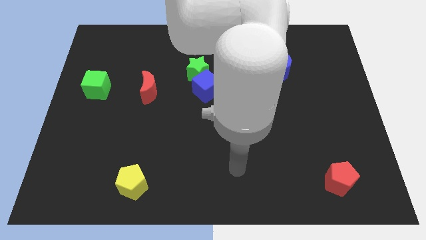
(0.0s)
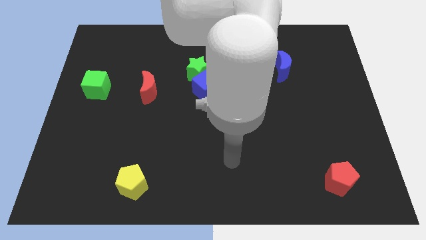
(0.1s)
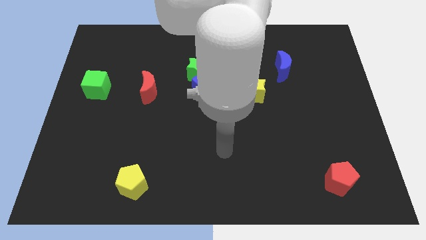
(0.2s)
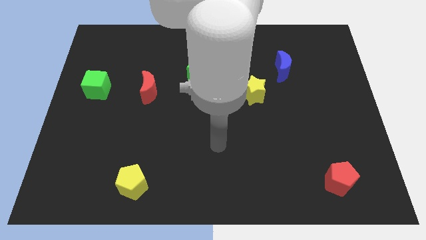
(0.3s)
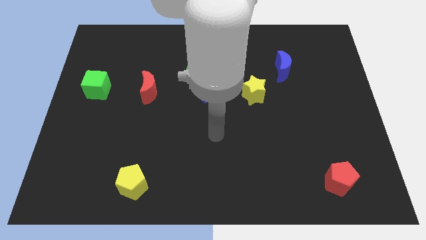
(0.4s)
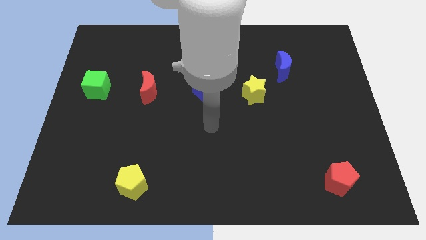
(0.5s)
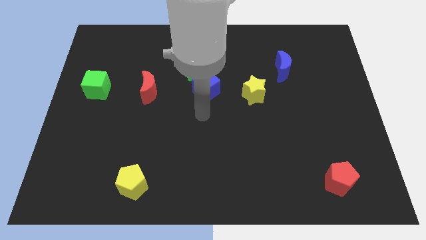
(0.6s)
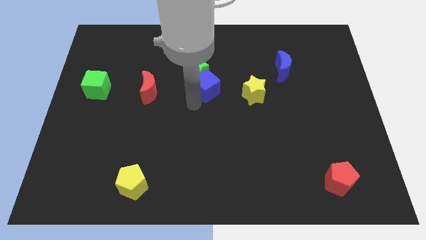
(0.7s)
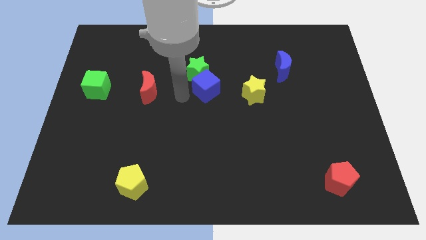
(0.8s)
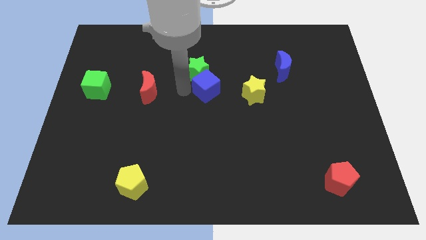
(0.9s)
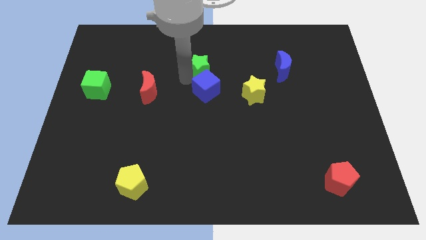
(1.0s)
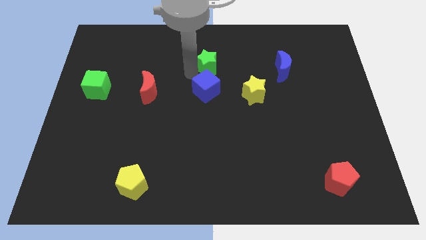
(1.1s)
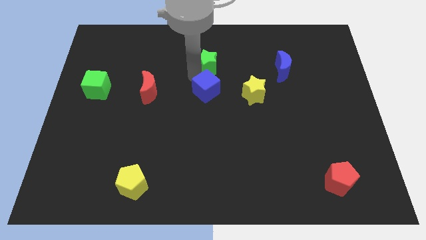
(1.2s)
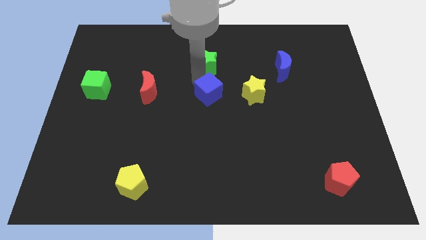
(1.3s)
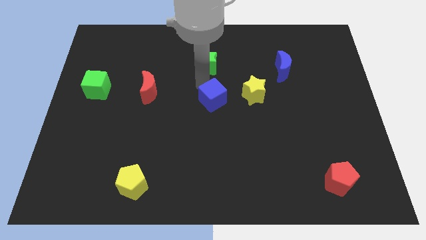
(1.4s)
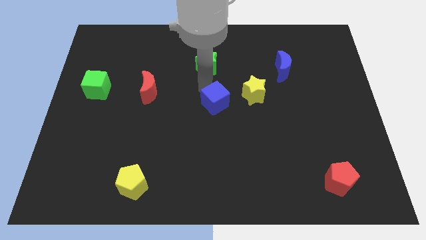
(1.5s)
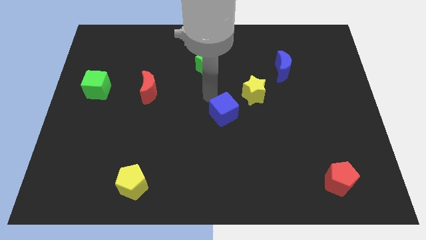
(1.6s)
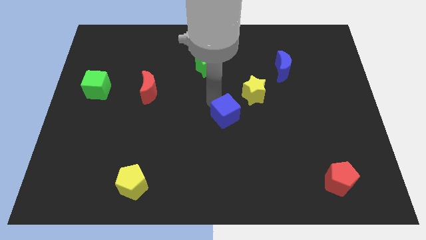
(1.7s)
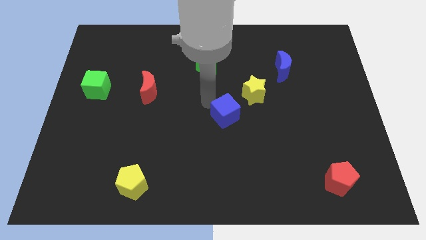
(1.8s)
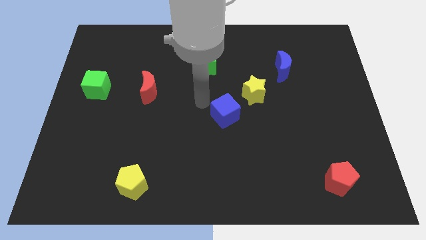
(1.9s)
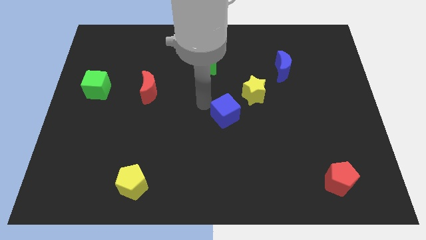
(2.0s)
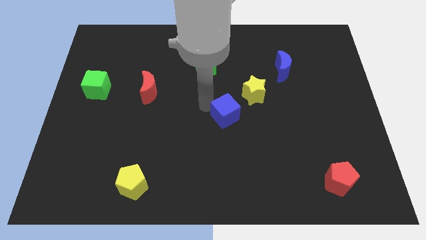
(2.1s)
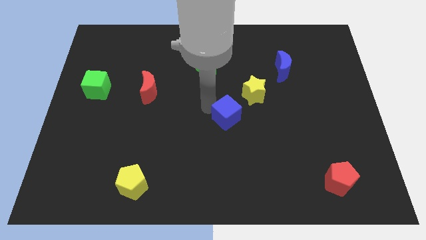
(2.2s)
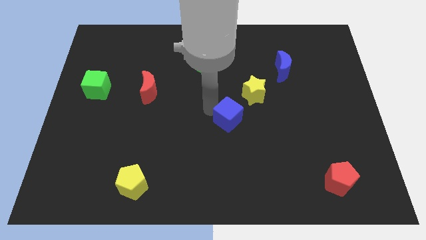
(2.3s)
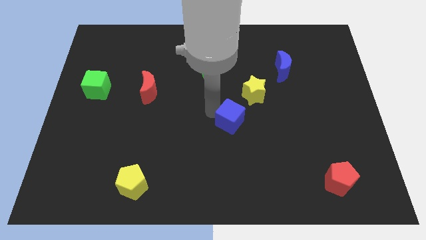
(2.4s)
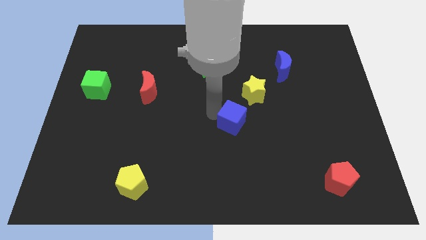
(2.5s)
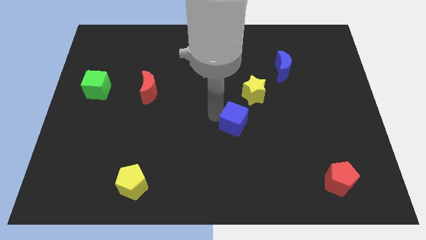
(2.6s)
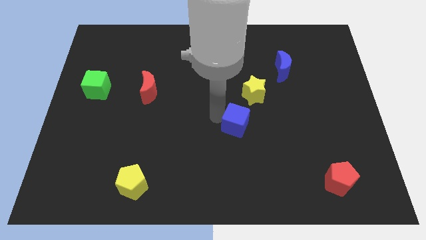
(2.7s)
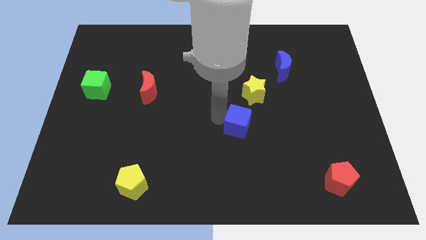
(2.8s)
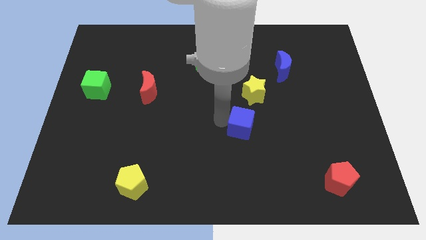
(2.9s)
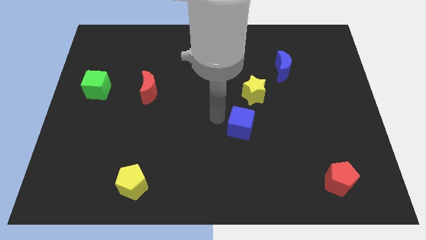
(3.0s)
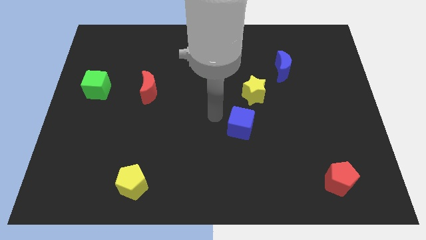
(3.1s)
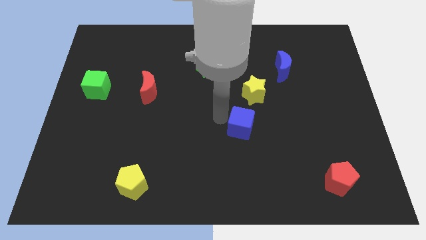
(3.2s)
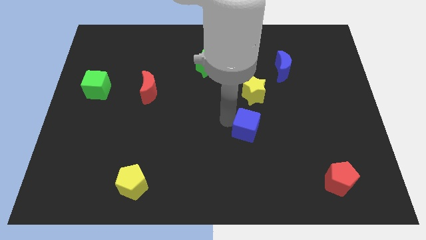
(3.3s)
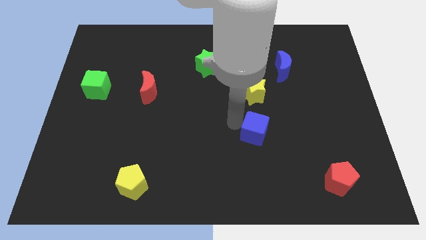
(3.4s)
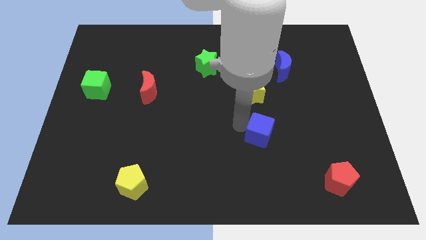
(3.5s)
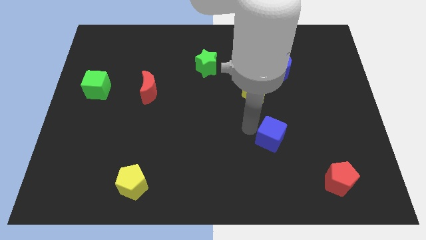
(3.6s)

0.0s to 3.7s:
slide the blue cube down and to the right diagonally

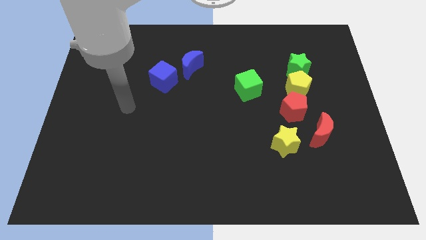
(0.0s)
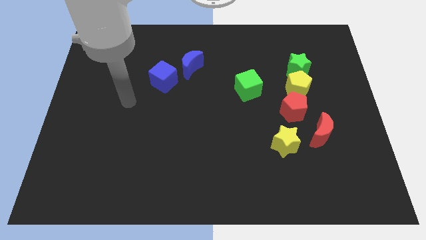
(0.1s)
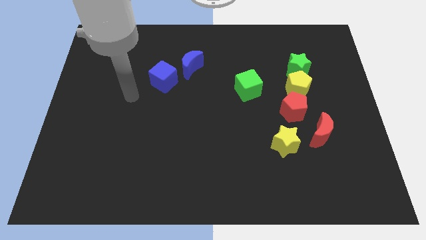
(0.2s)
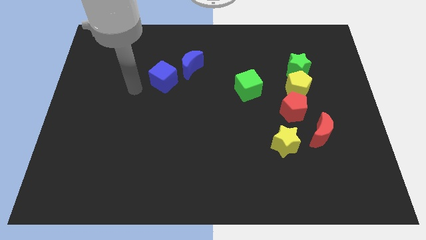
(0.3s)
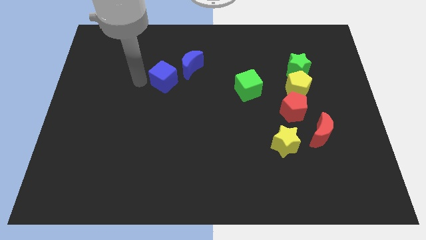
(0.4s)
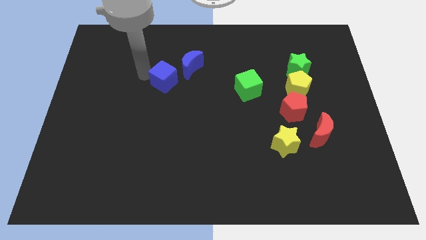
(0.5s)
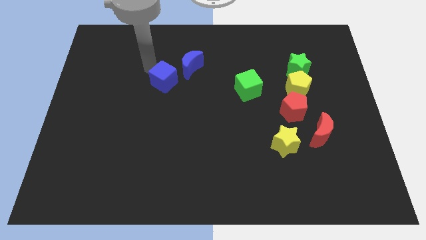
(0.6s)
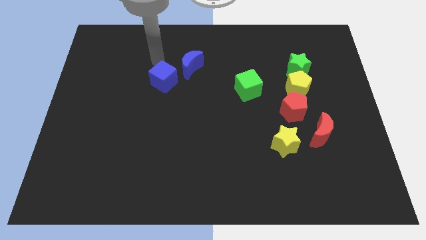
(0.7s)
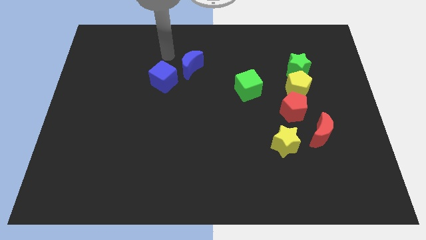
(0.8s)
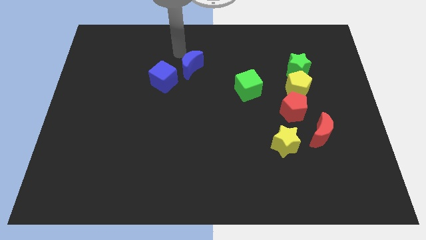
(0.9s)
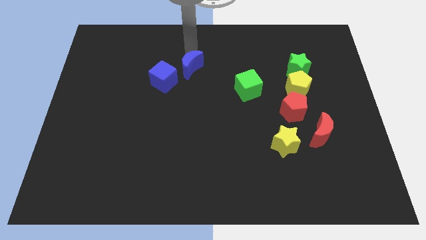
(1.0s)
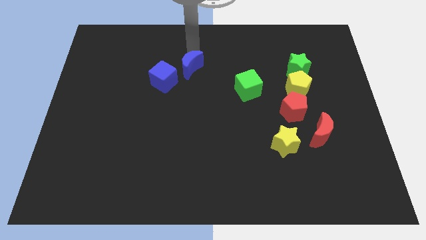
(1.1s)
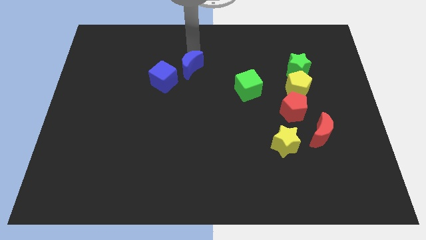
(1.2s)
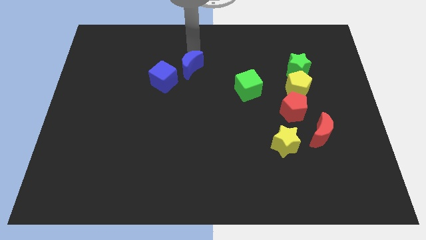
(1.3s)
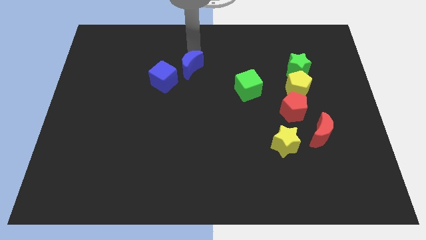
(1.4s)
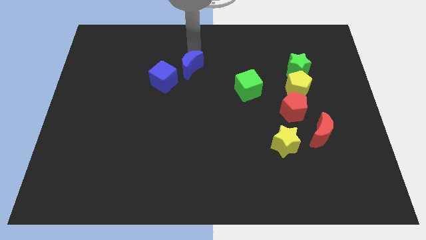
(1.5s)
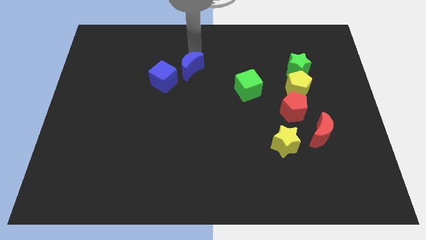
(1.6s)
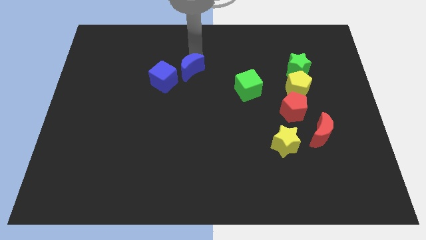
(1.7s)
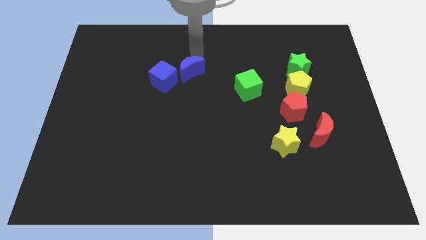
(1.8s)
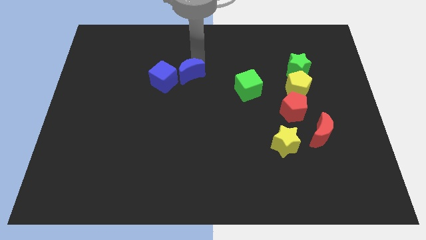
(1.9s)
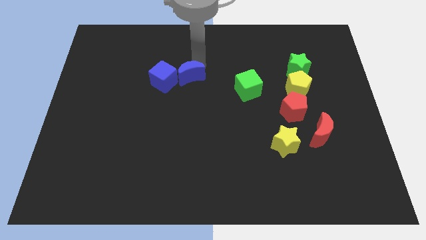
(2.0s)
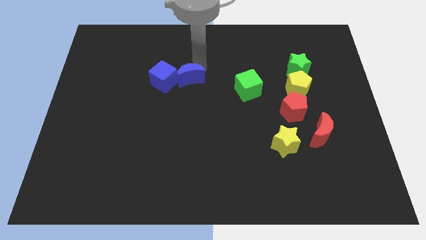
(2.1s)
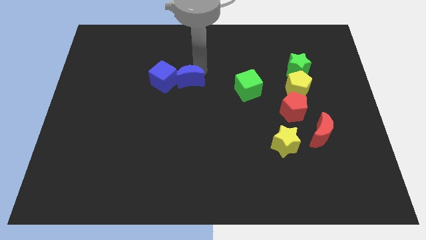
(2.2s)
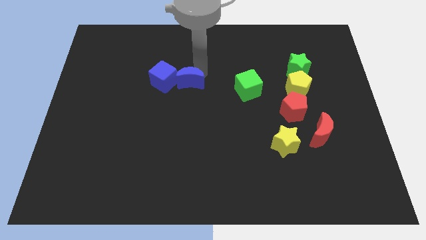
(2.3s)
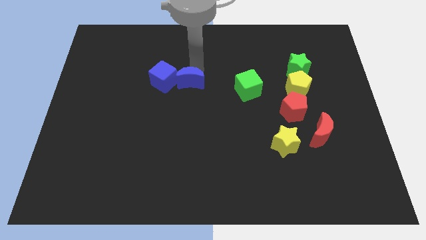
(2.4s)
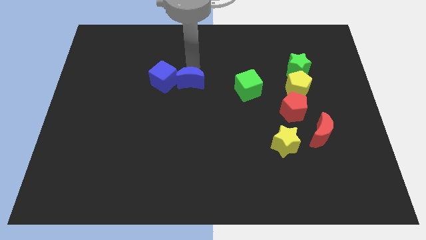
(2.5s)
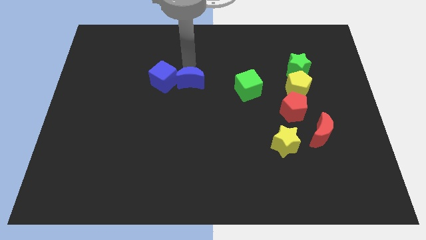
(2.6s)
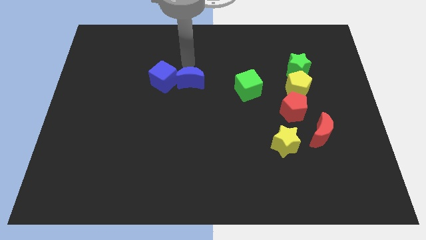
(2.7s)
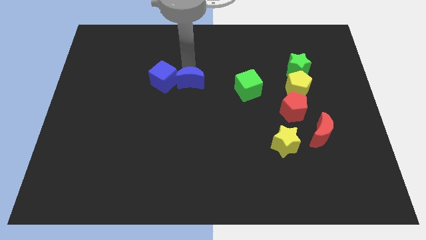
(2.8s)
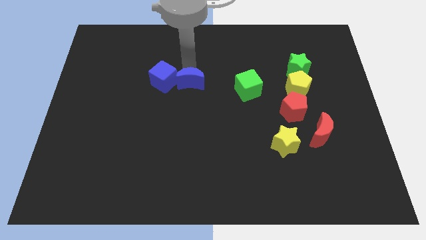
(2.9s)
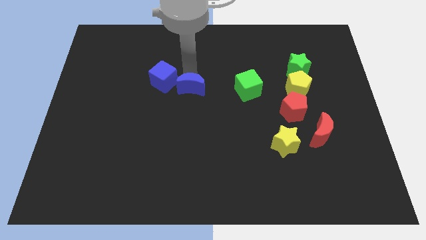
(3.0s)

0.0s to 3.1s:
move the blue moon downwards a little

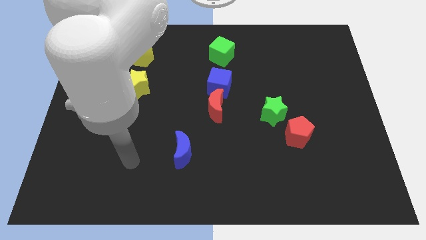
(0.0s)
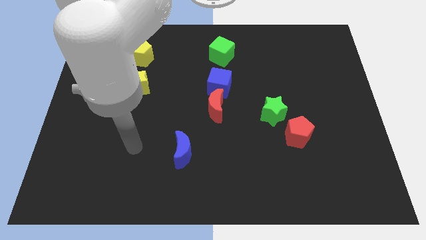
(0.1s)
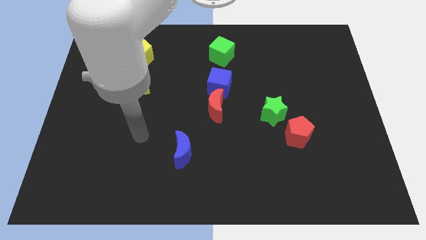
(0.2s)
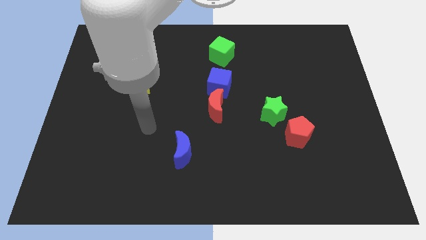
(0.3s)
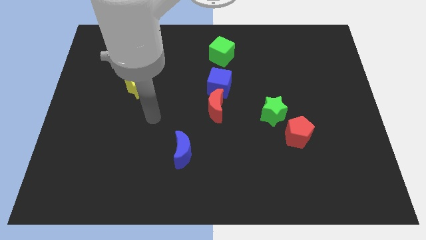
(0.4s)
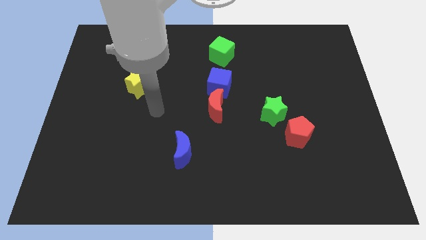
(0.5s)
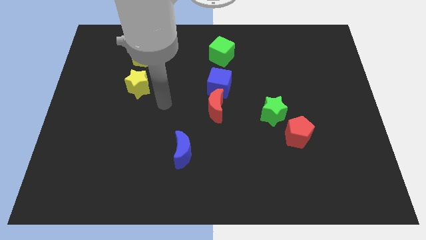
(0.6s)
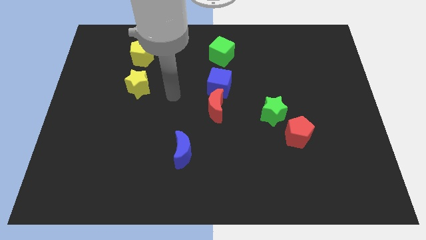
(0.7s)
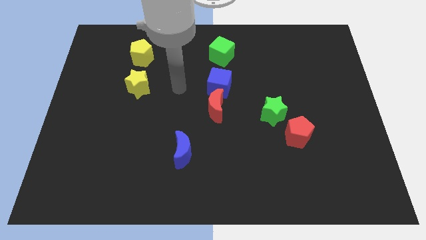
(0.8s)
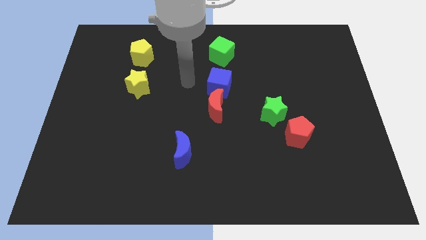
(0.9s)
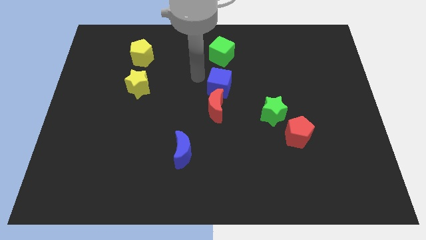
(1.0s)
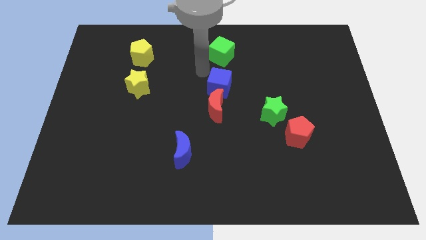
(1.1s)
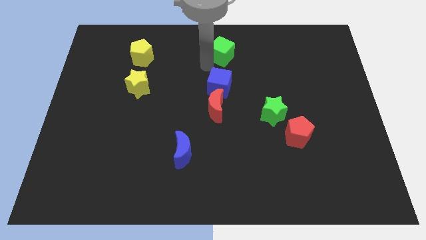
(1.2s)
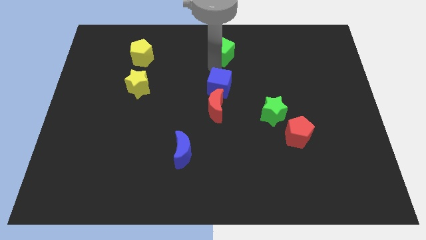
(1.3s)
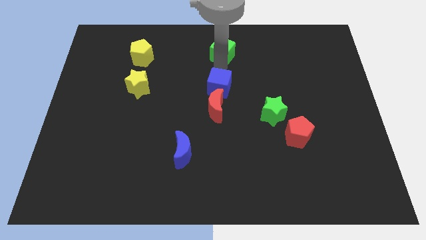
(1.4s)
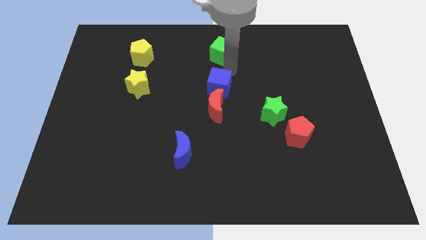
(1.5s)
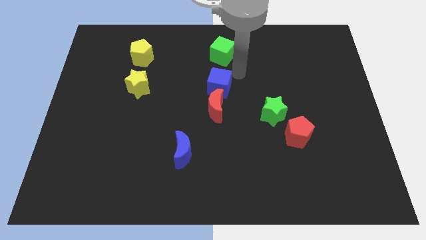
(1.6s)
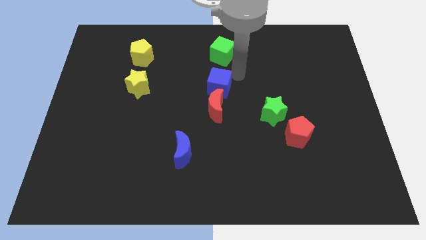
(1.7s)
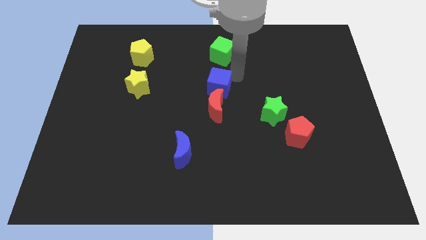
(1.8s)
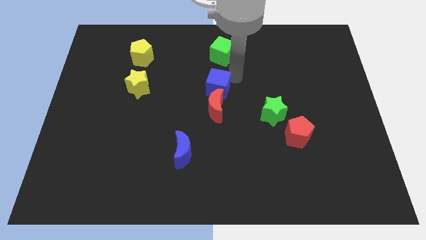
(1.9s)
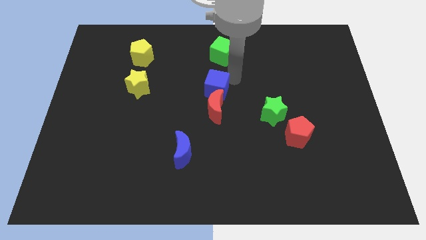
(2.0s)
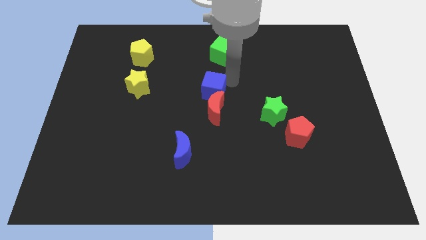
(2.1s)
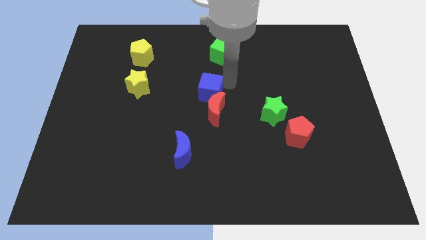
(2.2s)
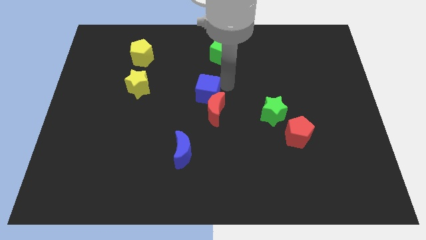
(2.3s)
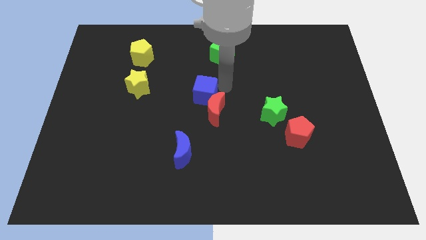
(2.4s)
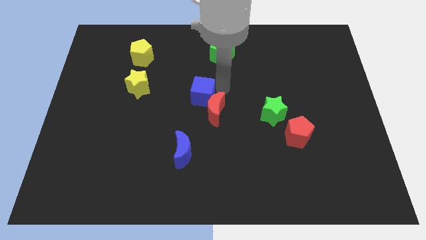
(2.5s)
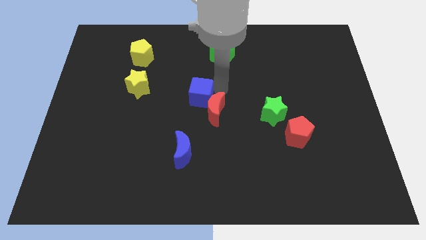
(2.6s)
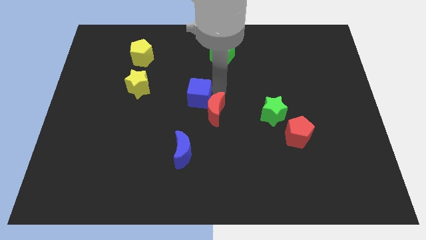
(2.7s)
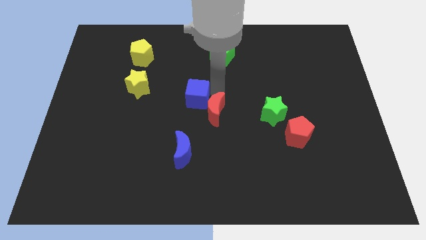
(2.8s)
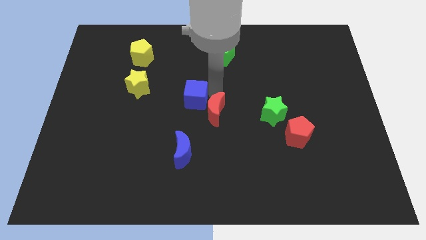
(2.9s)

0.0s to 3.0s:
slightly move the blue cube downwards and left diagonally
